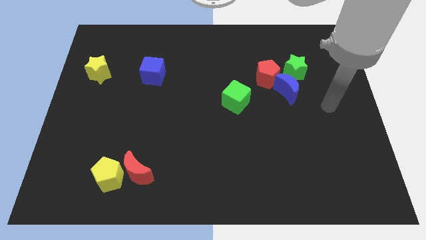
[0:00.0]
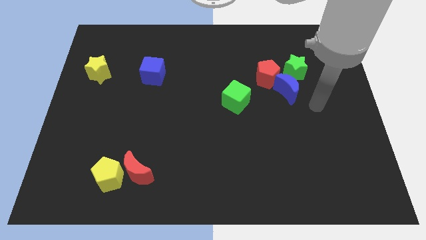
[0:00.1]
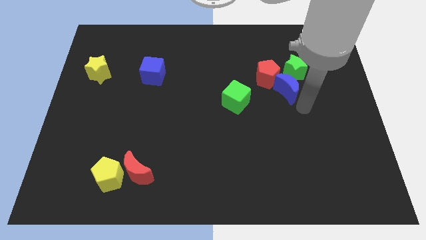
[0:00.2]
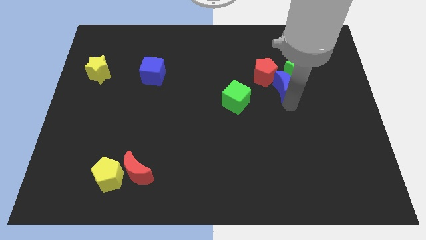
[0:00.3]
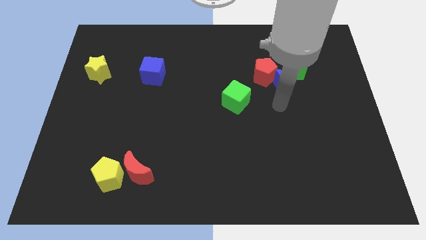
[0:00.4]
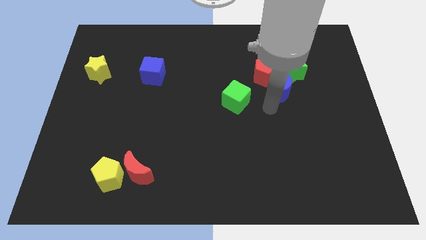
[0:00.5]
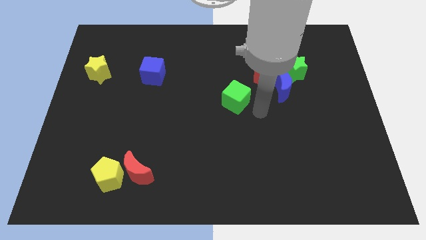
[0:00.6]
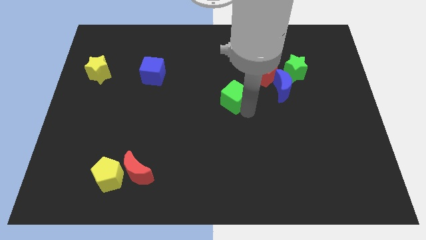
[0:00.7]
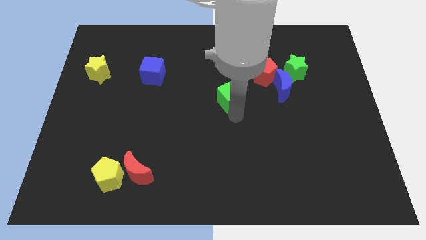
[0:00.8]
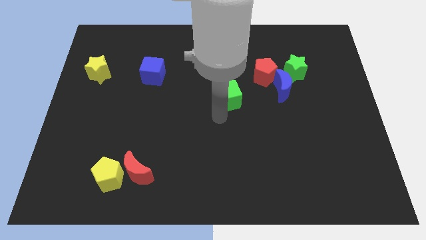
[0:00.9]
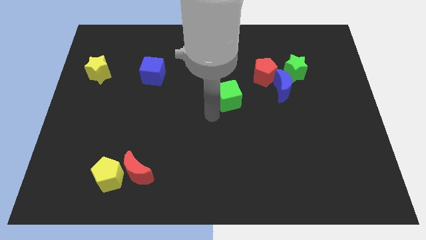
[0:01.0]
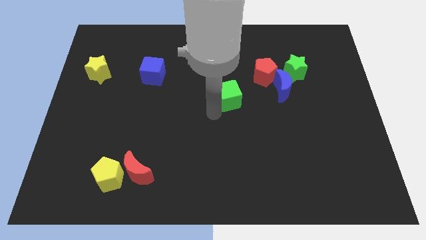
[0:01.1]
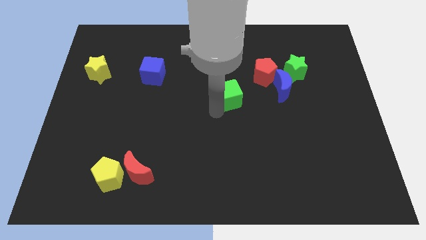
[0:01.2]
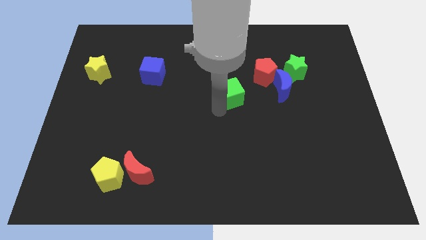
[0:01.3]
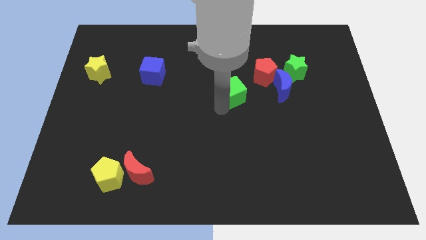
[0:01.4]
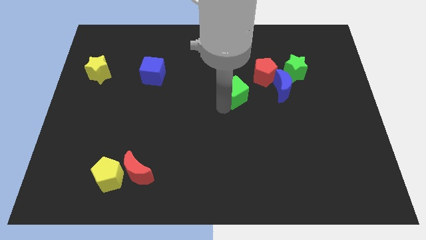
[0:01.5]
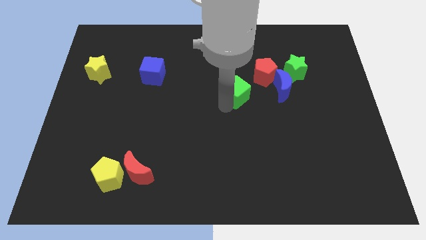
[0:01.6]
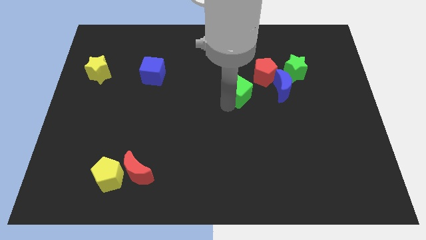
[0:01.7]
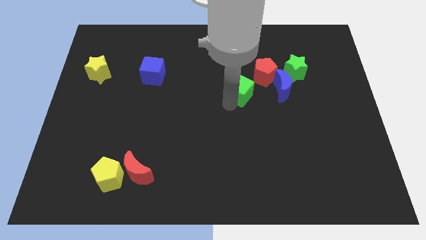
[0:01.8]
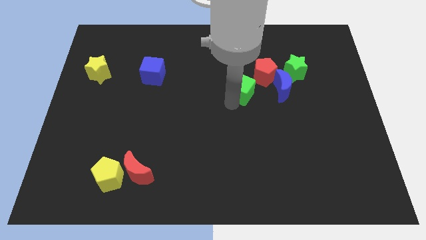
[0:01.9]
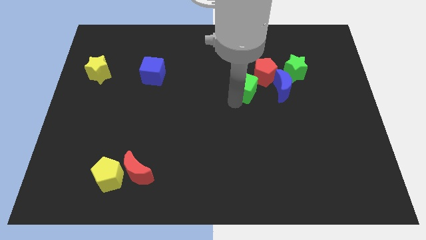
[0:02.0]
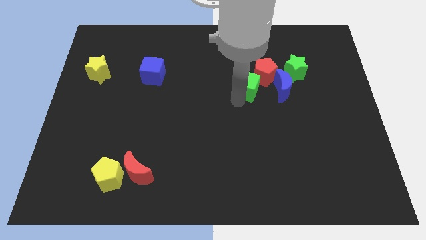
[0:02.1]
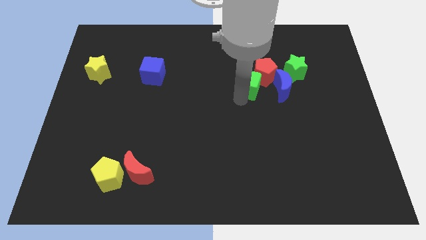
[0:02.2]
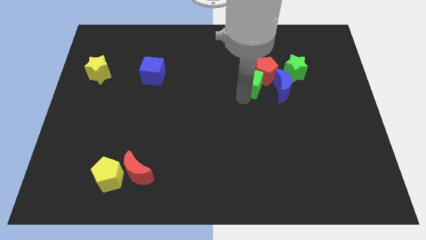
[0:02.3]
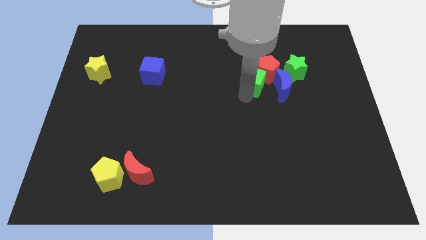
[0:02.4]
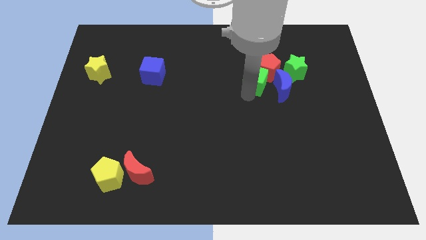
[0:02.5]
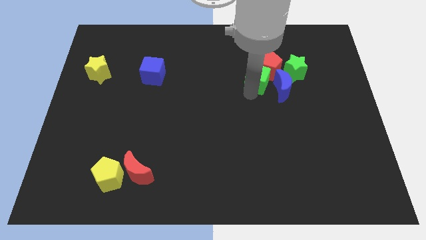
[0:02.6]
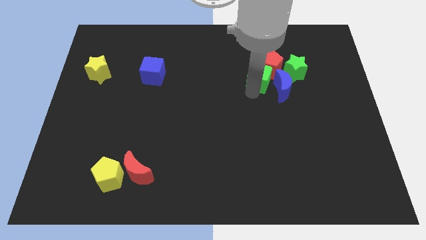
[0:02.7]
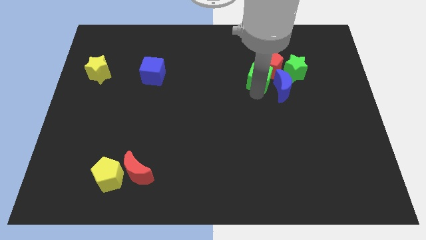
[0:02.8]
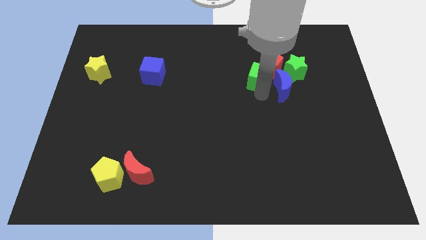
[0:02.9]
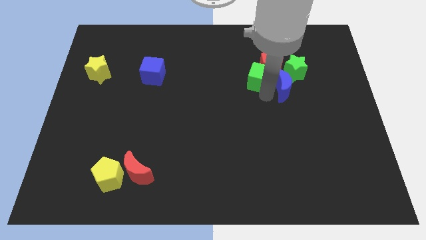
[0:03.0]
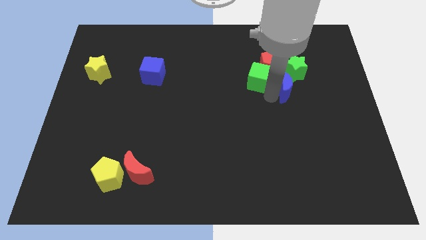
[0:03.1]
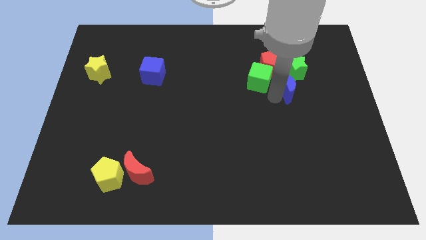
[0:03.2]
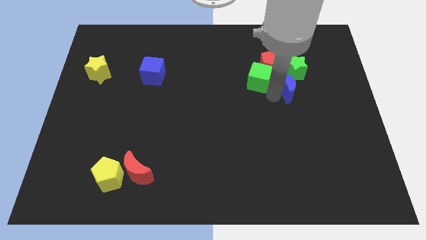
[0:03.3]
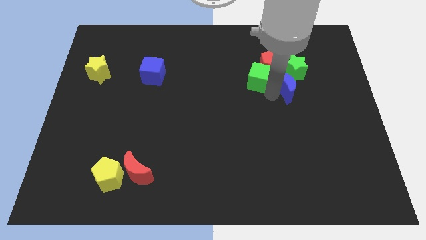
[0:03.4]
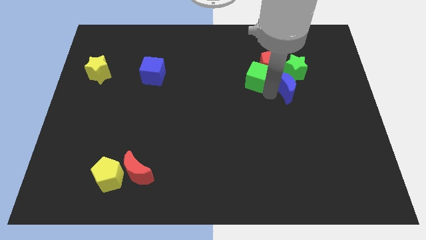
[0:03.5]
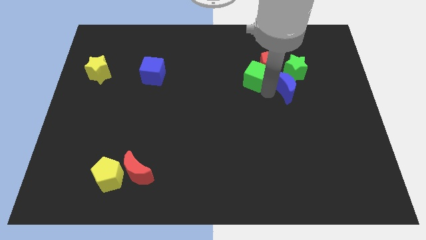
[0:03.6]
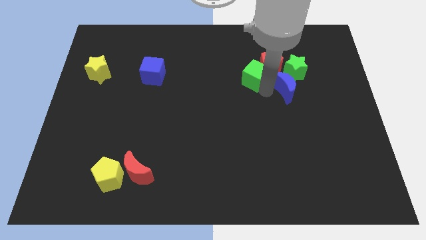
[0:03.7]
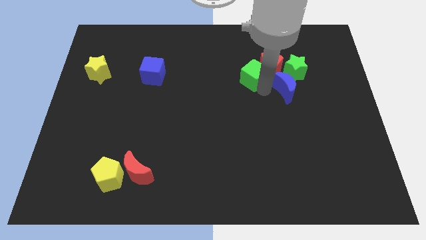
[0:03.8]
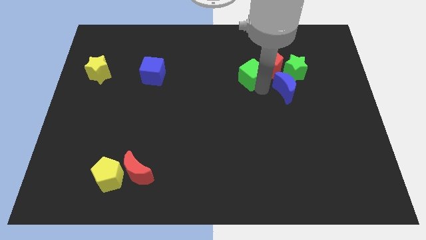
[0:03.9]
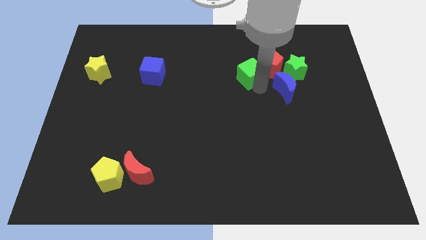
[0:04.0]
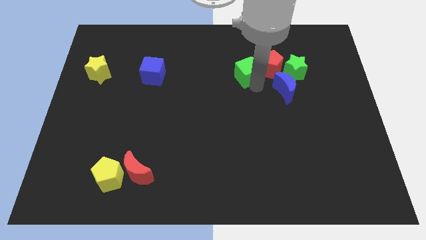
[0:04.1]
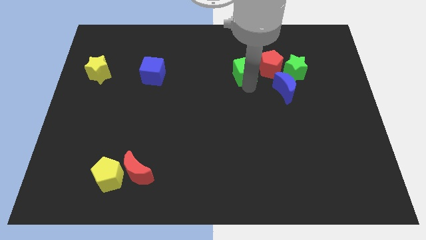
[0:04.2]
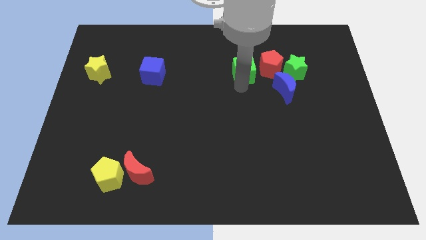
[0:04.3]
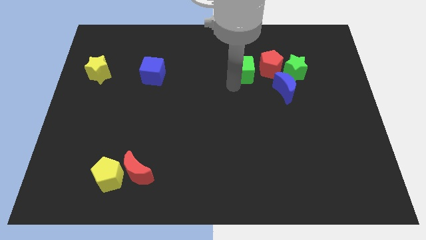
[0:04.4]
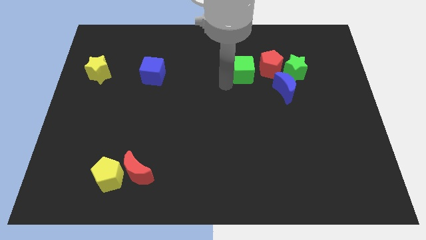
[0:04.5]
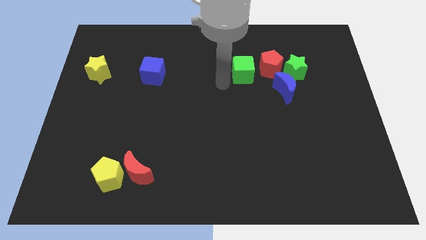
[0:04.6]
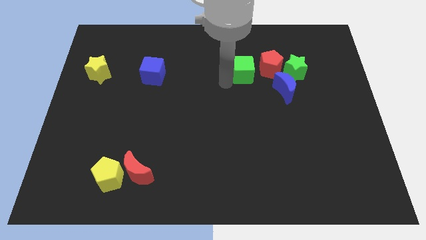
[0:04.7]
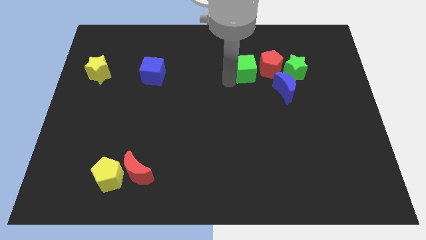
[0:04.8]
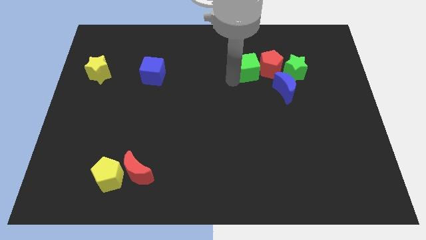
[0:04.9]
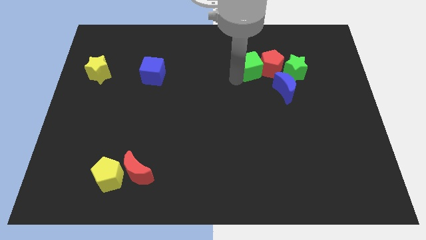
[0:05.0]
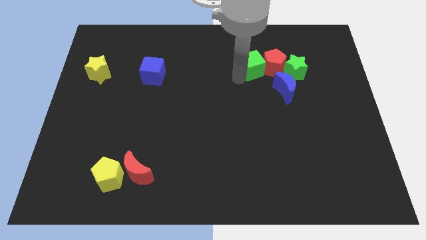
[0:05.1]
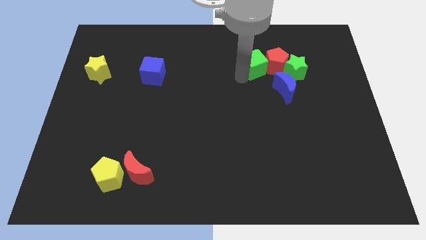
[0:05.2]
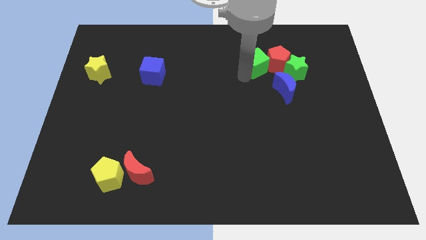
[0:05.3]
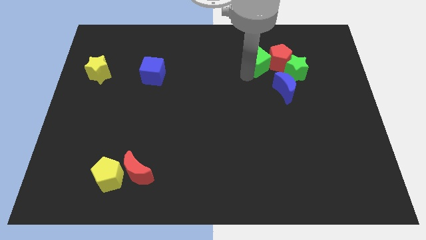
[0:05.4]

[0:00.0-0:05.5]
put the green cube diagonally up and to the left of the green star

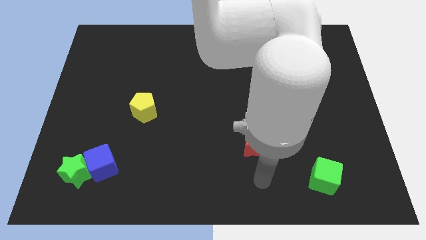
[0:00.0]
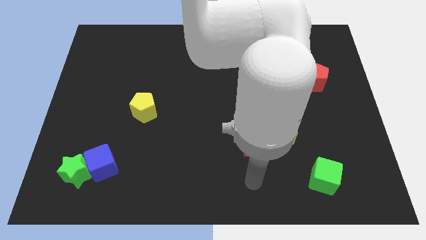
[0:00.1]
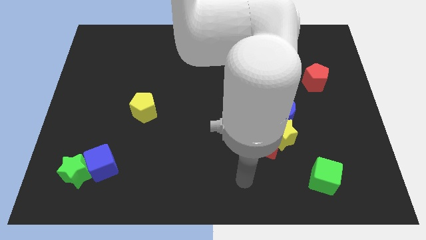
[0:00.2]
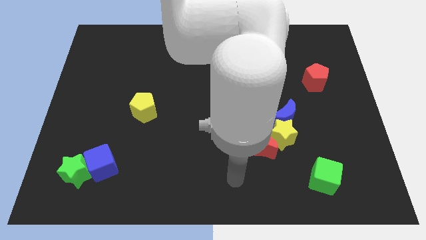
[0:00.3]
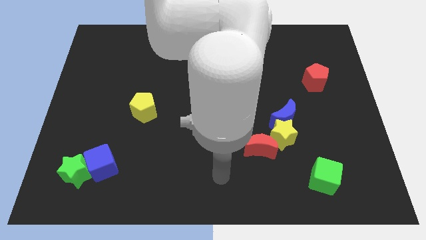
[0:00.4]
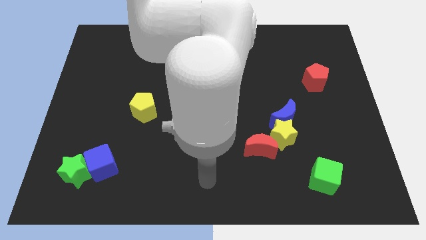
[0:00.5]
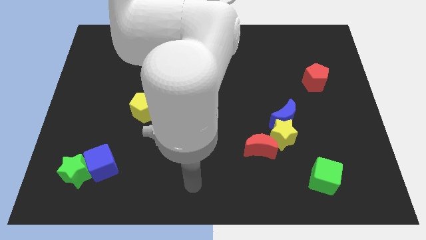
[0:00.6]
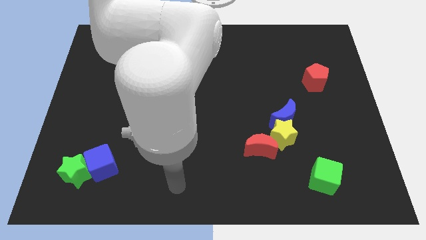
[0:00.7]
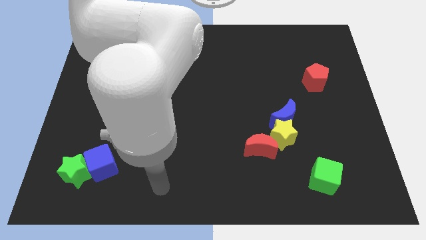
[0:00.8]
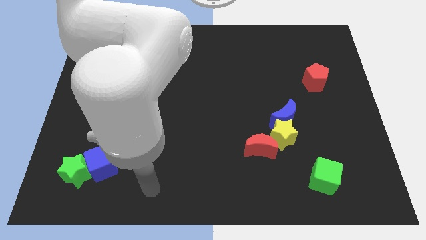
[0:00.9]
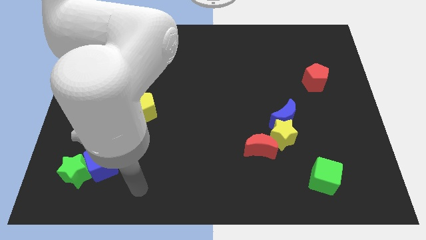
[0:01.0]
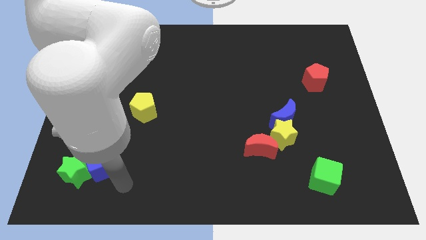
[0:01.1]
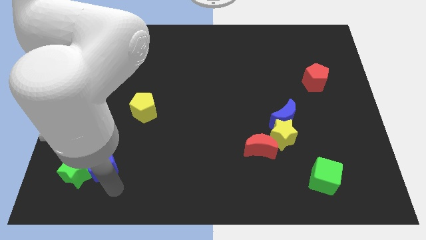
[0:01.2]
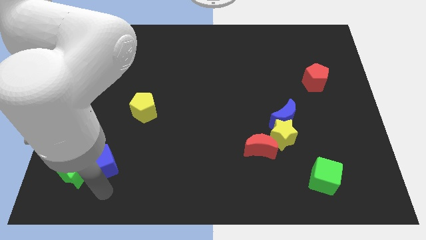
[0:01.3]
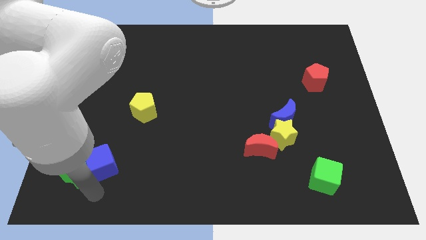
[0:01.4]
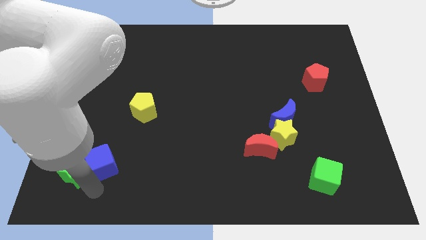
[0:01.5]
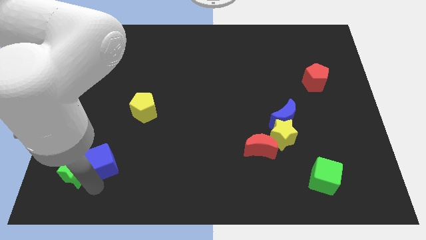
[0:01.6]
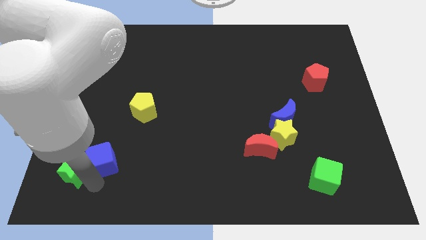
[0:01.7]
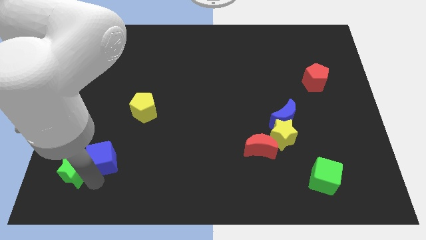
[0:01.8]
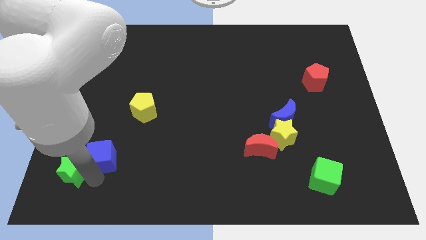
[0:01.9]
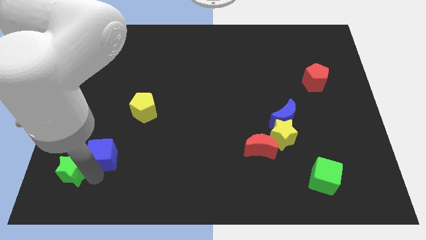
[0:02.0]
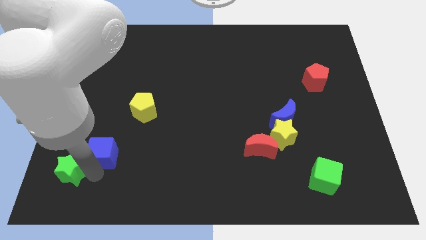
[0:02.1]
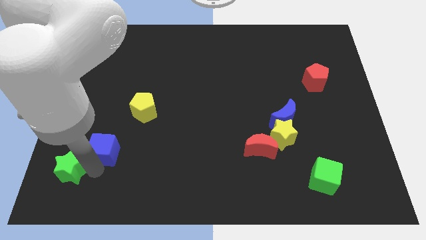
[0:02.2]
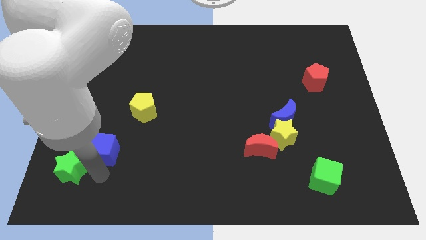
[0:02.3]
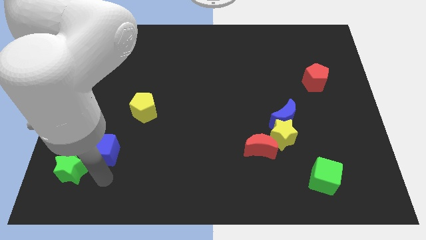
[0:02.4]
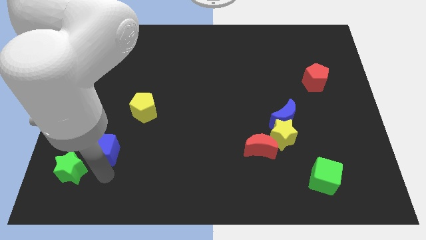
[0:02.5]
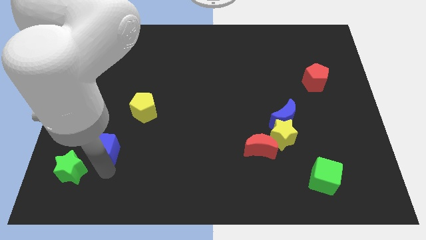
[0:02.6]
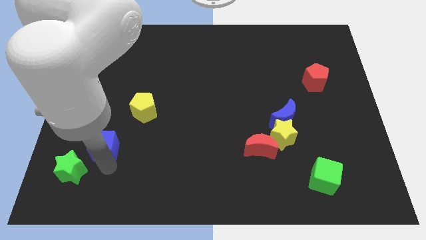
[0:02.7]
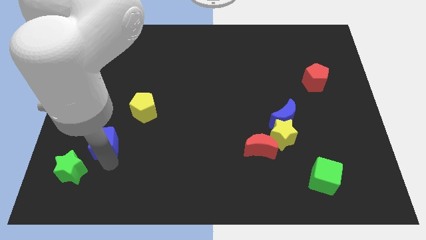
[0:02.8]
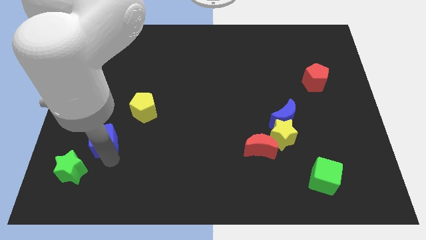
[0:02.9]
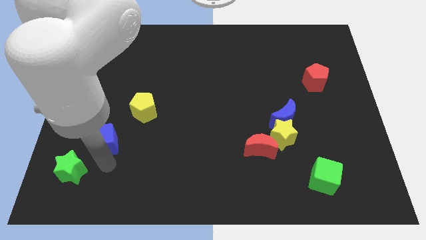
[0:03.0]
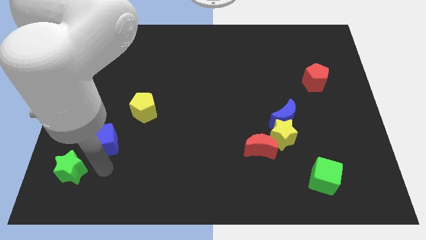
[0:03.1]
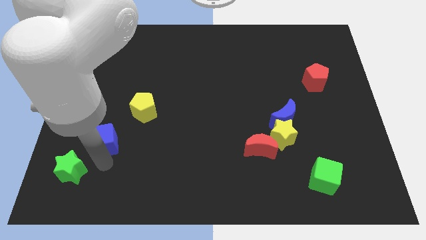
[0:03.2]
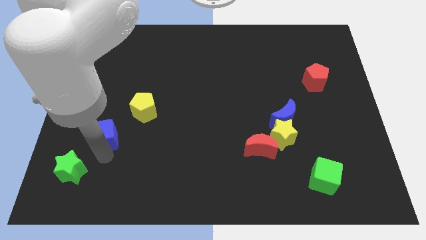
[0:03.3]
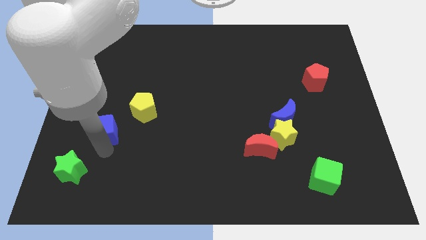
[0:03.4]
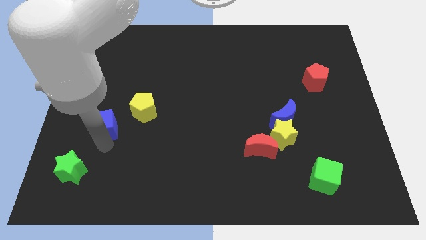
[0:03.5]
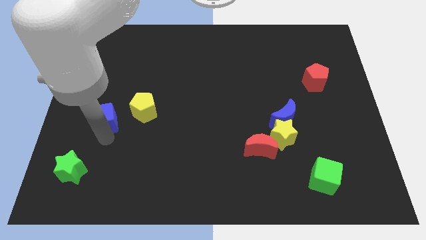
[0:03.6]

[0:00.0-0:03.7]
push the blue cube to the left side of the yellow pentagon
